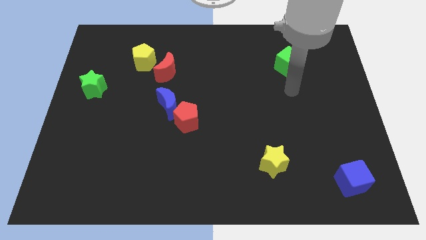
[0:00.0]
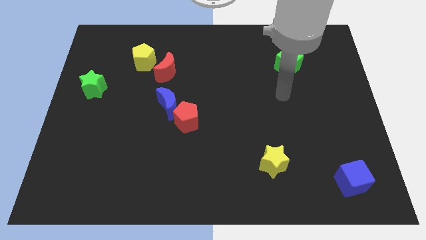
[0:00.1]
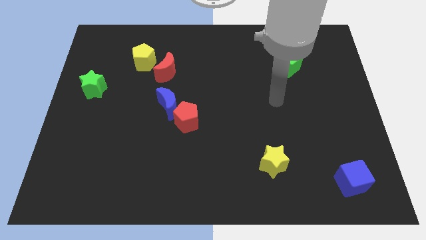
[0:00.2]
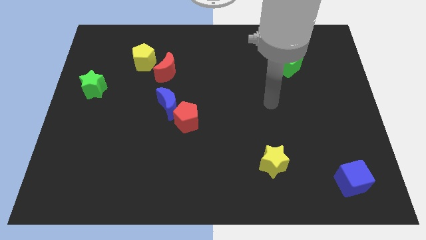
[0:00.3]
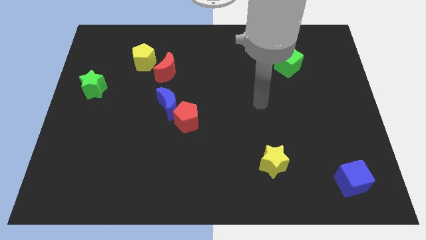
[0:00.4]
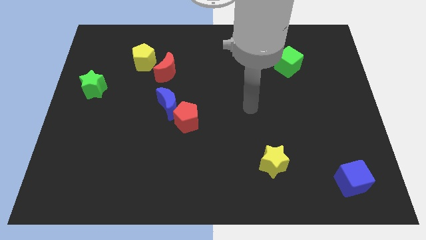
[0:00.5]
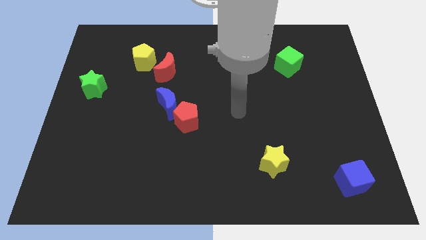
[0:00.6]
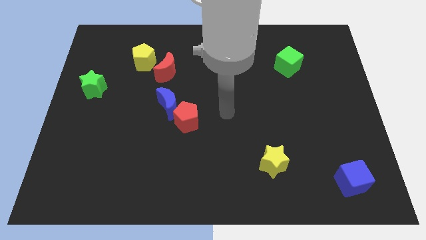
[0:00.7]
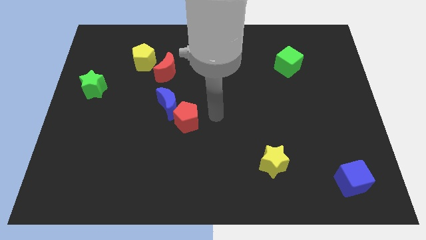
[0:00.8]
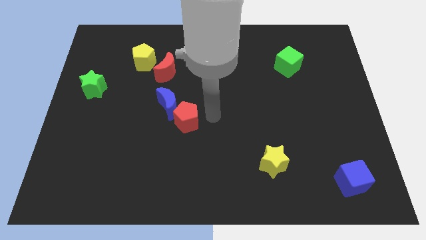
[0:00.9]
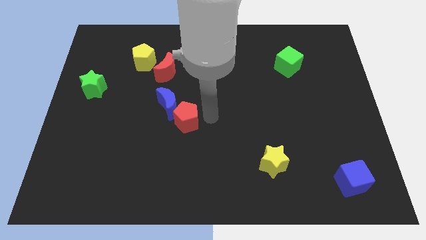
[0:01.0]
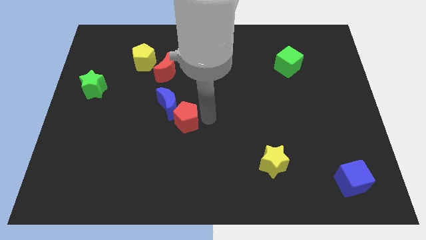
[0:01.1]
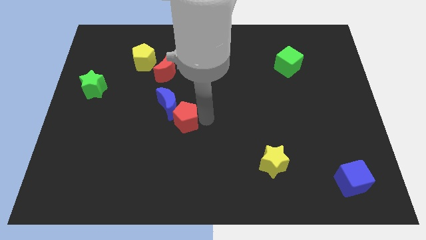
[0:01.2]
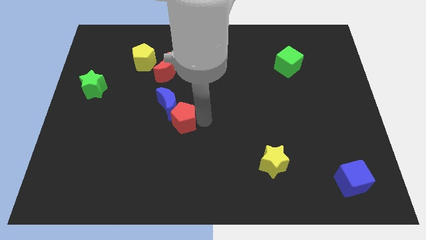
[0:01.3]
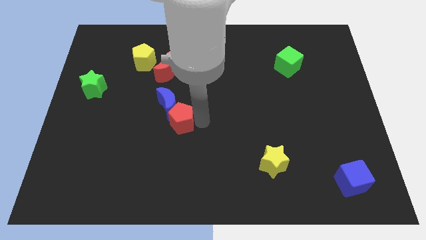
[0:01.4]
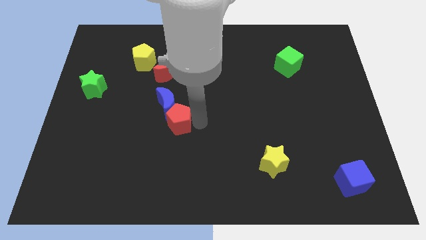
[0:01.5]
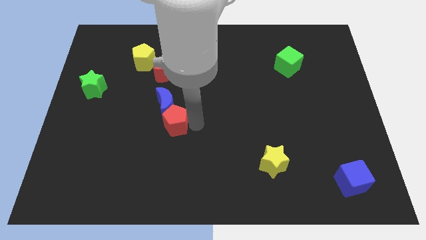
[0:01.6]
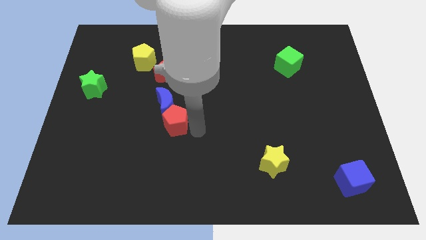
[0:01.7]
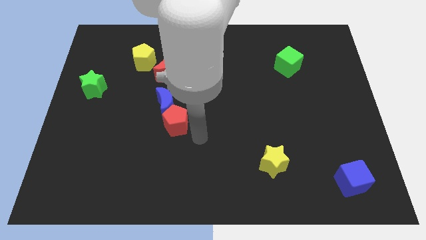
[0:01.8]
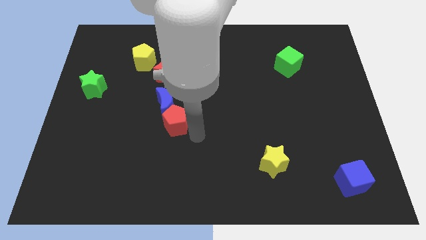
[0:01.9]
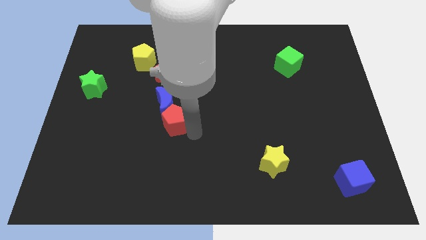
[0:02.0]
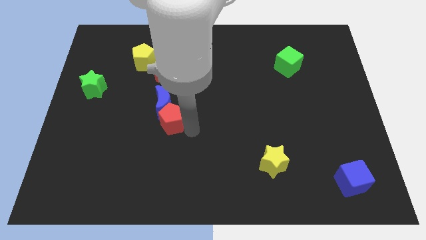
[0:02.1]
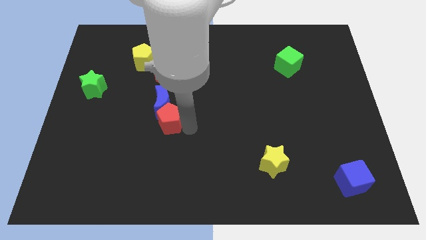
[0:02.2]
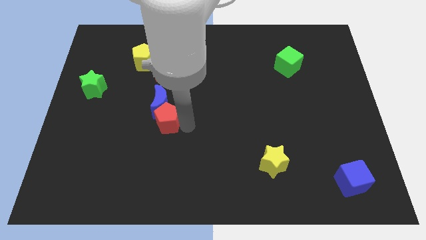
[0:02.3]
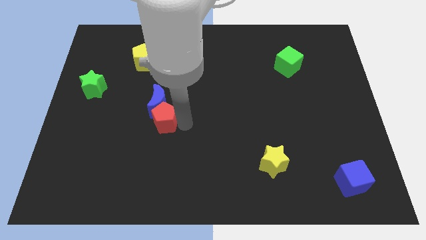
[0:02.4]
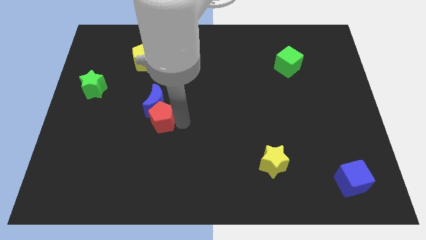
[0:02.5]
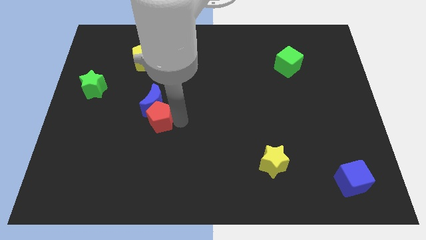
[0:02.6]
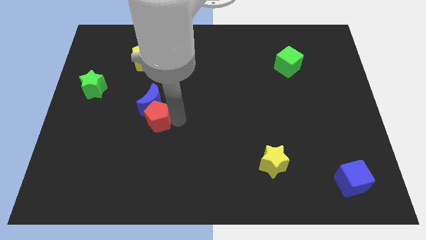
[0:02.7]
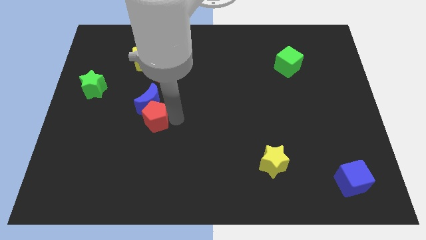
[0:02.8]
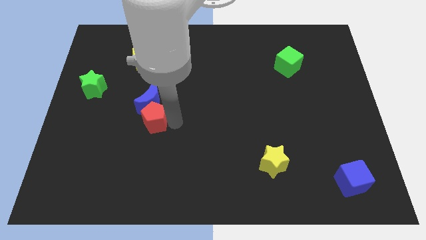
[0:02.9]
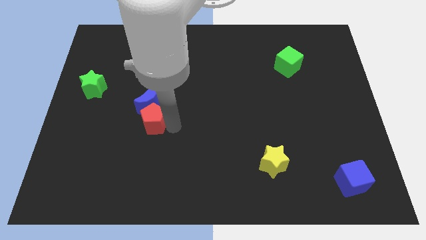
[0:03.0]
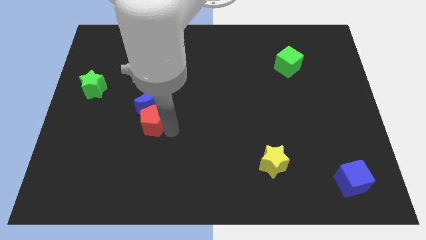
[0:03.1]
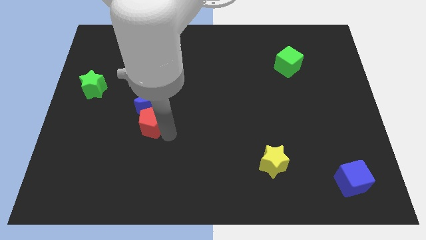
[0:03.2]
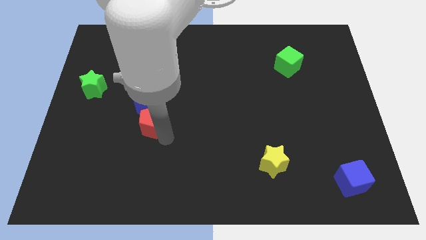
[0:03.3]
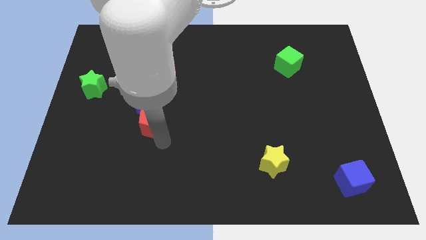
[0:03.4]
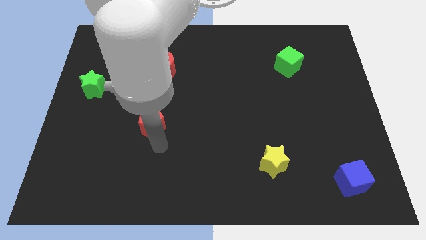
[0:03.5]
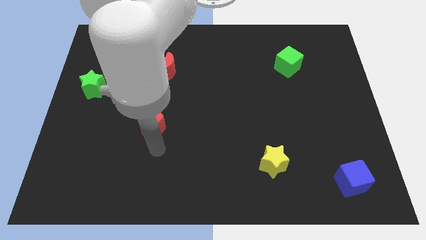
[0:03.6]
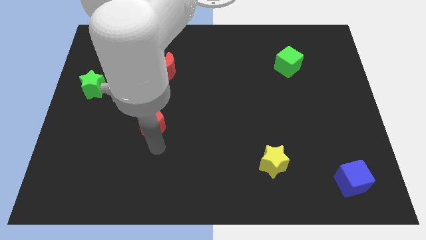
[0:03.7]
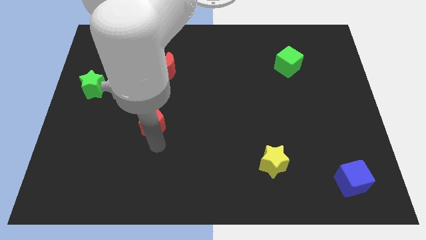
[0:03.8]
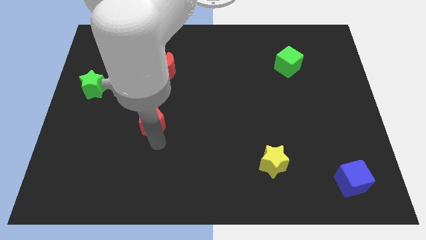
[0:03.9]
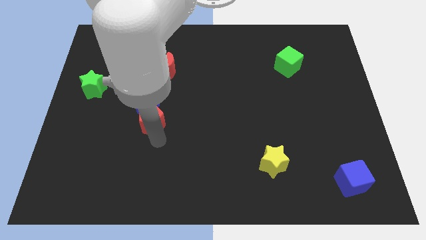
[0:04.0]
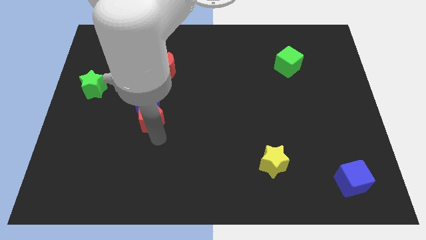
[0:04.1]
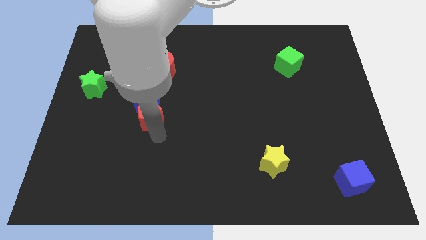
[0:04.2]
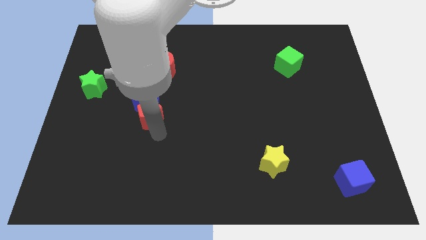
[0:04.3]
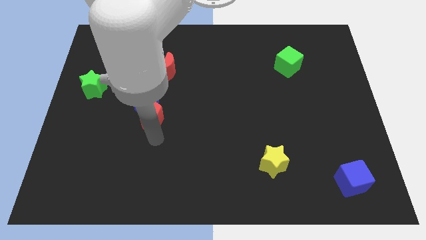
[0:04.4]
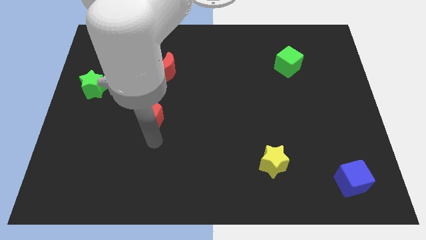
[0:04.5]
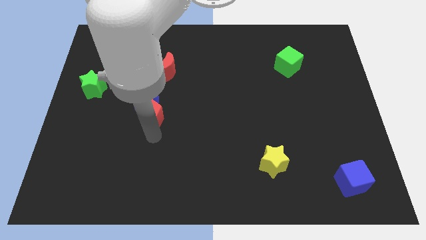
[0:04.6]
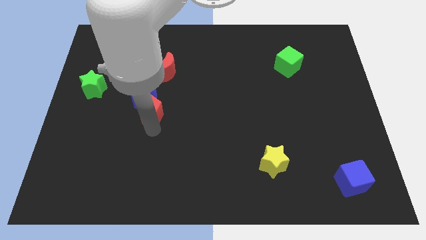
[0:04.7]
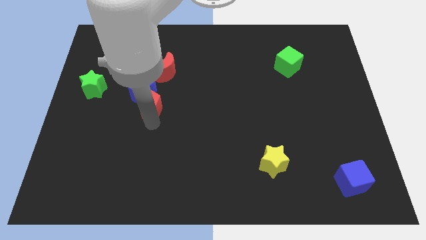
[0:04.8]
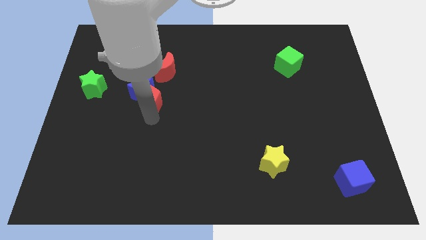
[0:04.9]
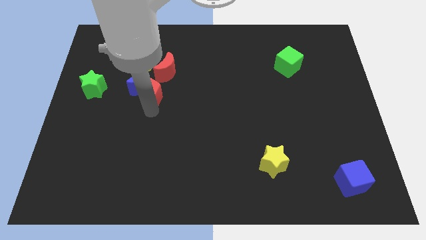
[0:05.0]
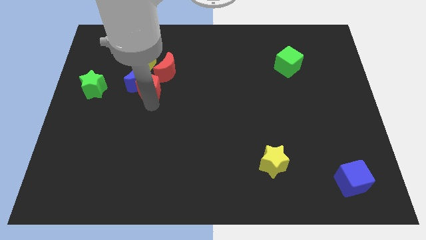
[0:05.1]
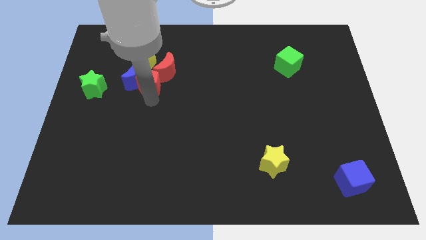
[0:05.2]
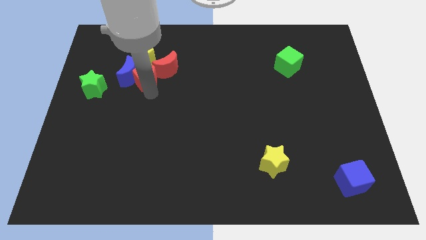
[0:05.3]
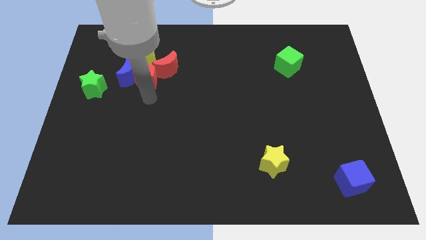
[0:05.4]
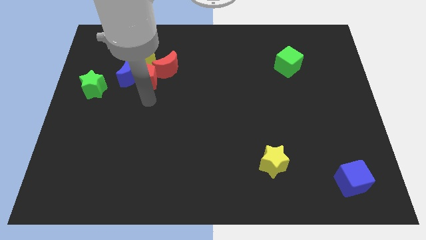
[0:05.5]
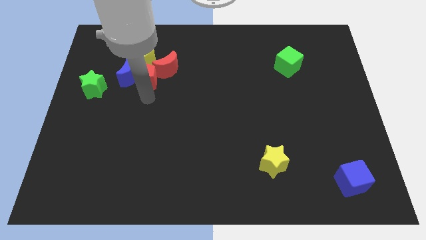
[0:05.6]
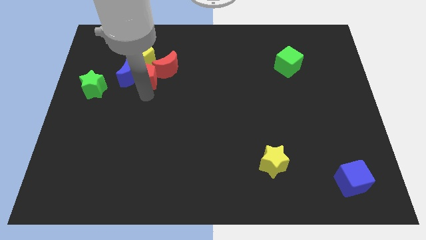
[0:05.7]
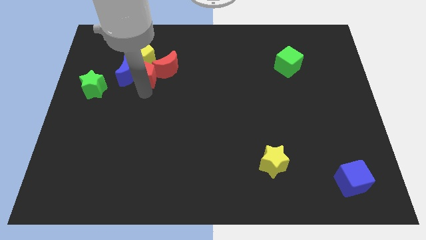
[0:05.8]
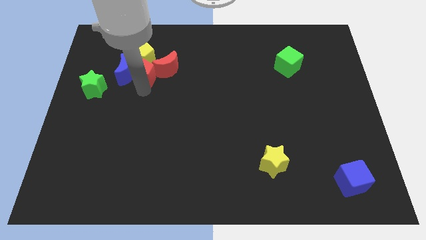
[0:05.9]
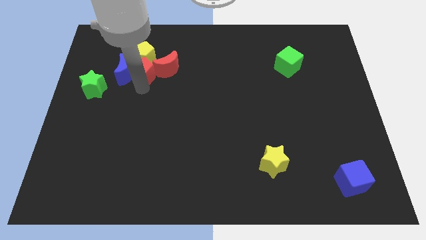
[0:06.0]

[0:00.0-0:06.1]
slide the red pentagon towards the yellow pentagon

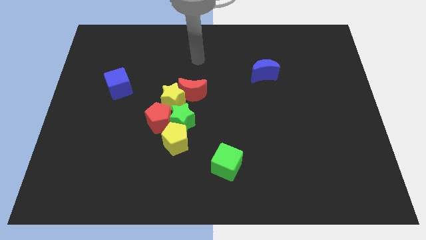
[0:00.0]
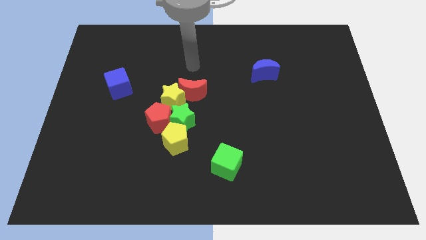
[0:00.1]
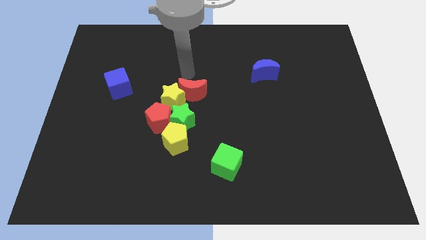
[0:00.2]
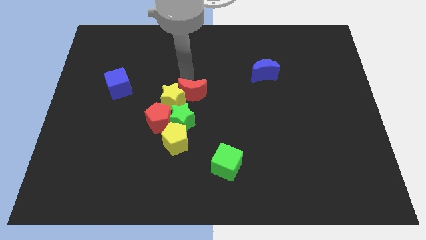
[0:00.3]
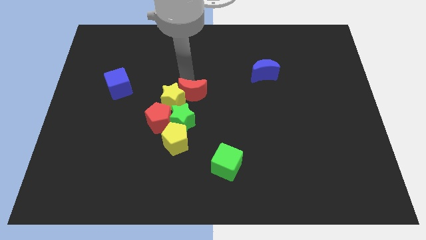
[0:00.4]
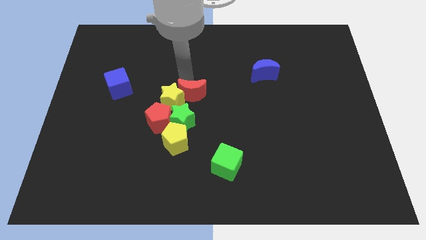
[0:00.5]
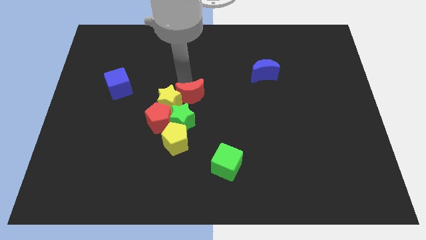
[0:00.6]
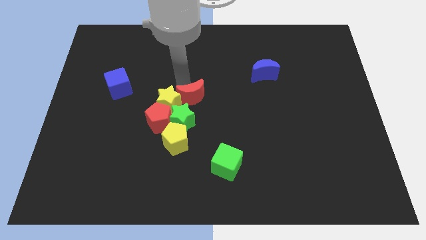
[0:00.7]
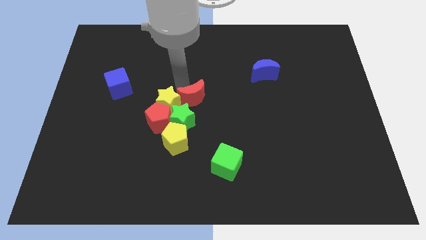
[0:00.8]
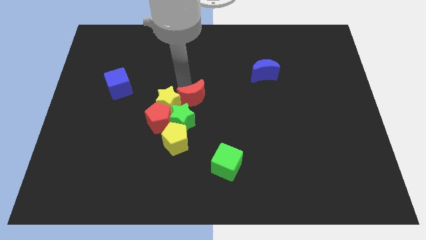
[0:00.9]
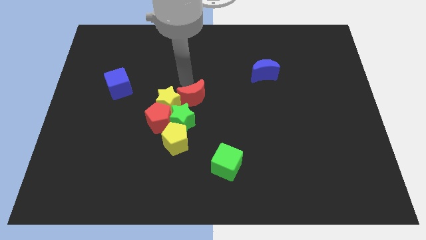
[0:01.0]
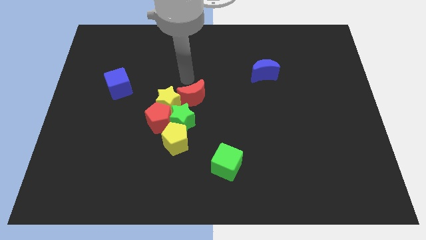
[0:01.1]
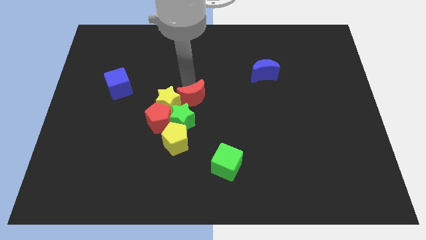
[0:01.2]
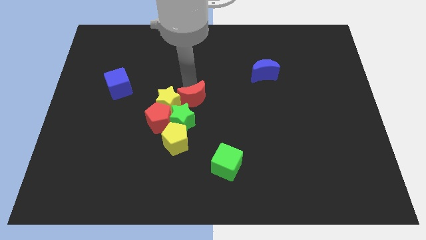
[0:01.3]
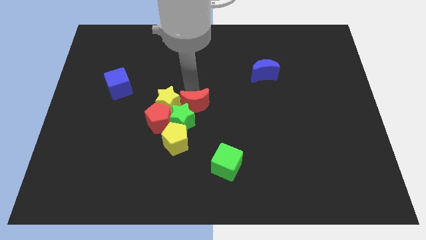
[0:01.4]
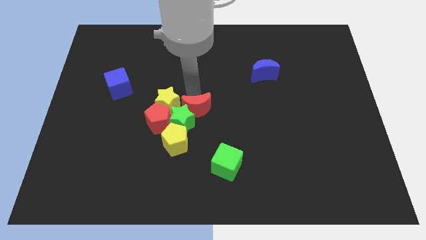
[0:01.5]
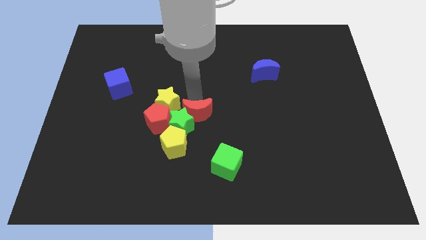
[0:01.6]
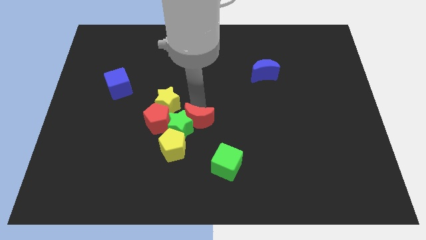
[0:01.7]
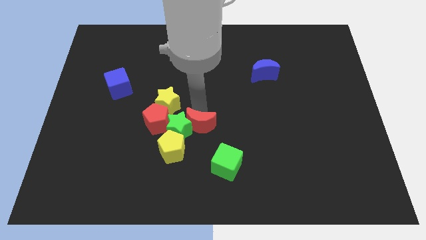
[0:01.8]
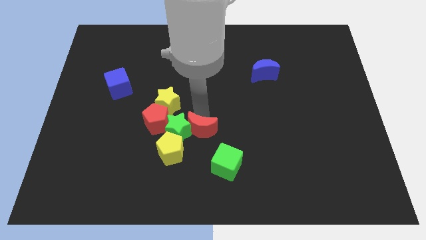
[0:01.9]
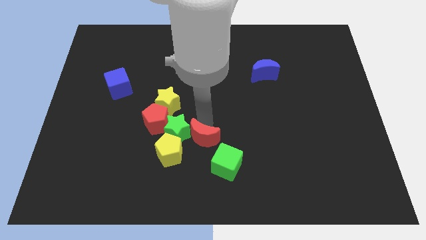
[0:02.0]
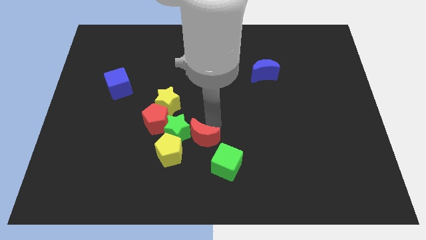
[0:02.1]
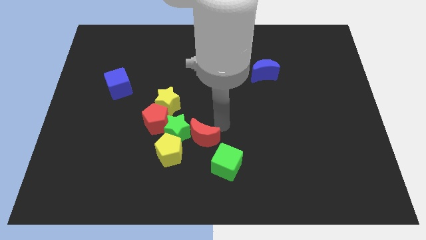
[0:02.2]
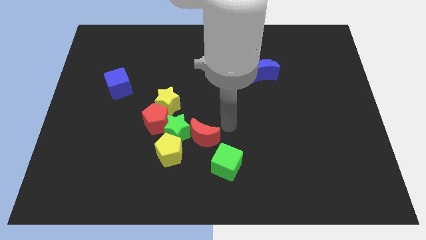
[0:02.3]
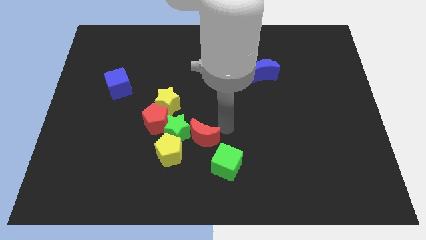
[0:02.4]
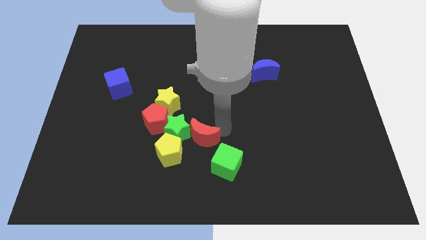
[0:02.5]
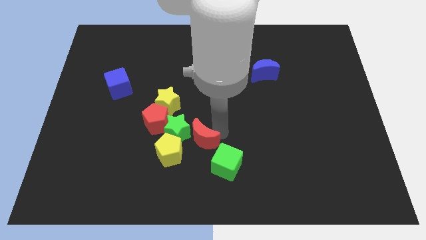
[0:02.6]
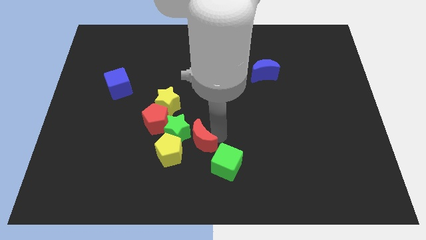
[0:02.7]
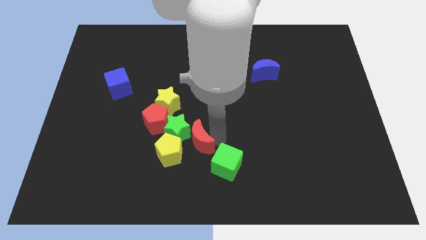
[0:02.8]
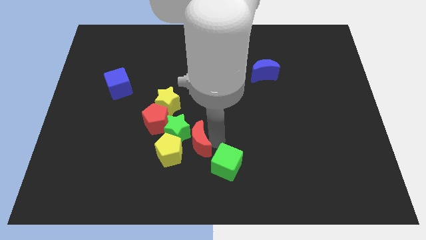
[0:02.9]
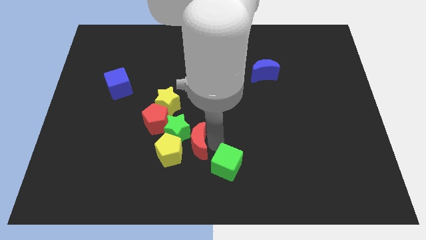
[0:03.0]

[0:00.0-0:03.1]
move the red moon towards the yellow pentagon
